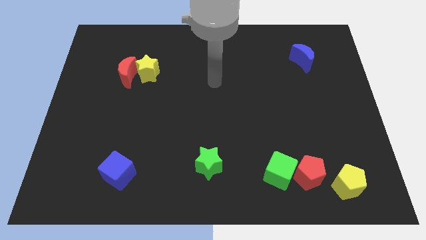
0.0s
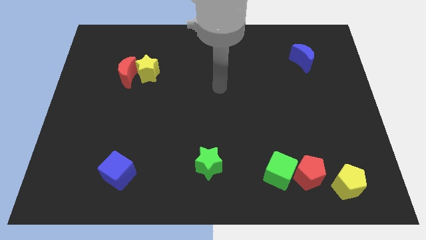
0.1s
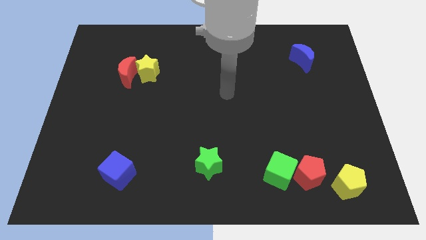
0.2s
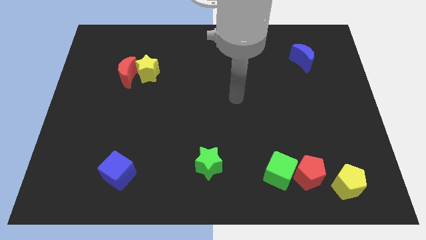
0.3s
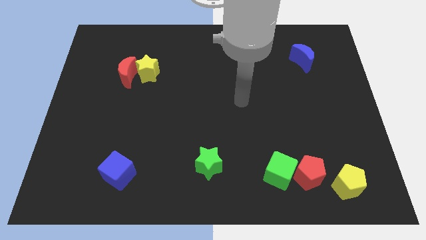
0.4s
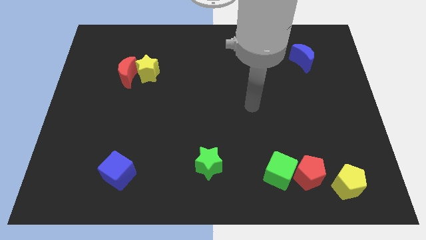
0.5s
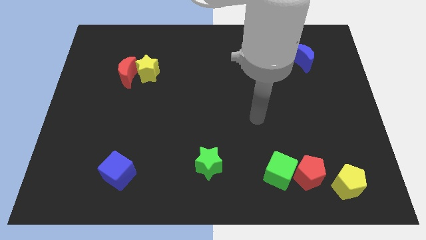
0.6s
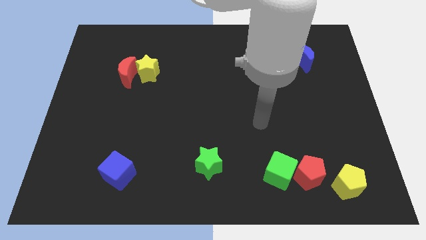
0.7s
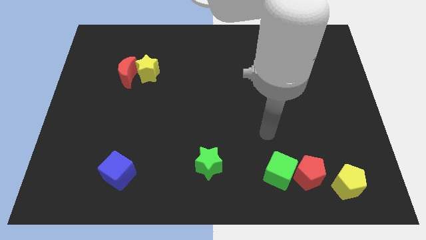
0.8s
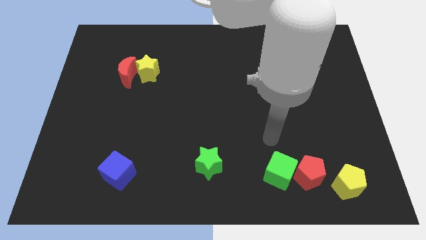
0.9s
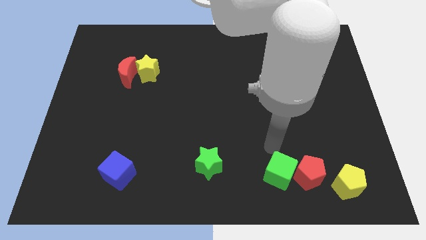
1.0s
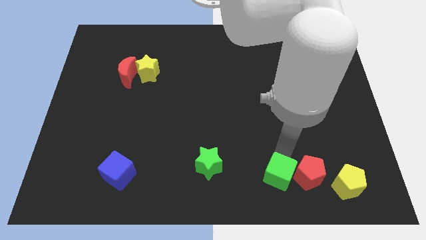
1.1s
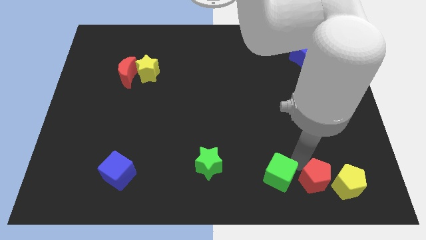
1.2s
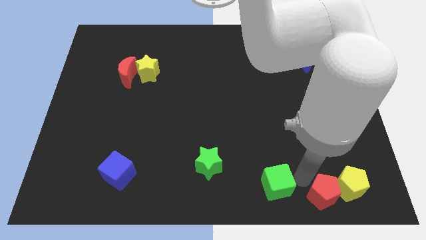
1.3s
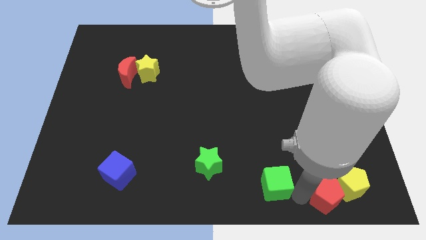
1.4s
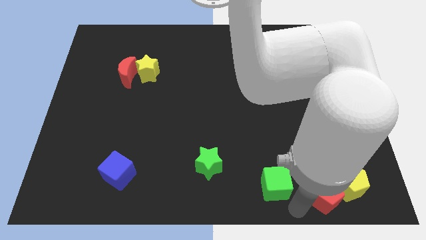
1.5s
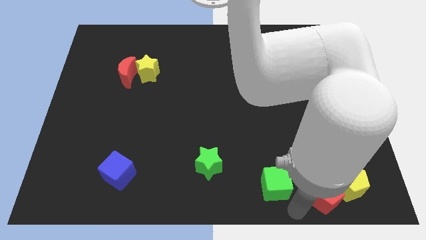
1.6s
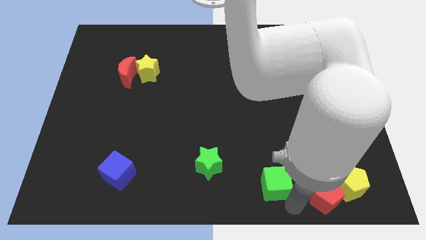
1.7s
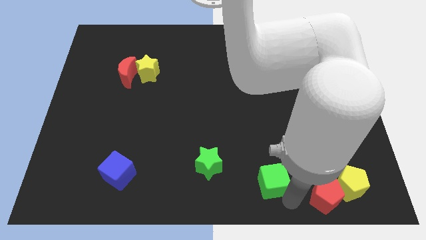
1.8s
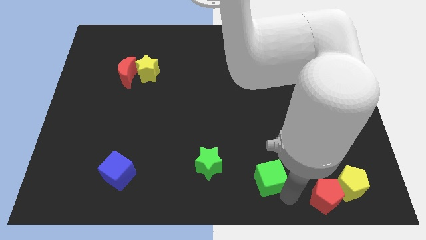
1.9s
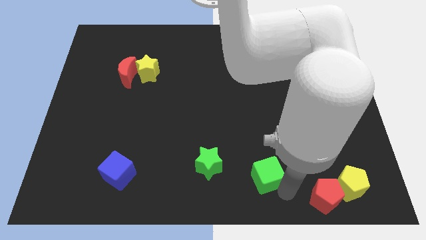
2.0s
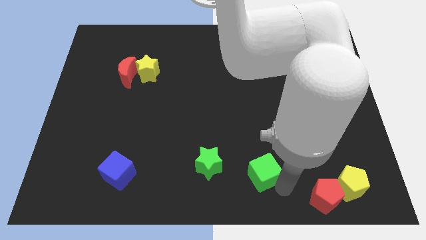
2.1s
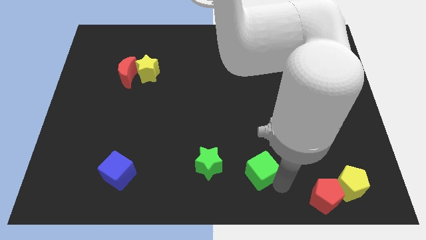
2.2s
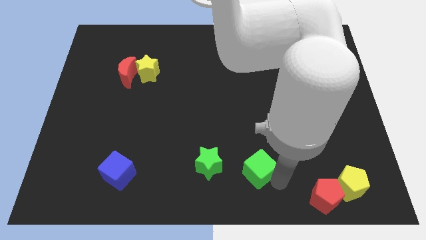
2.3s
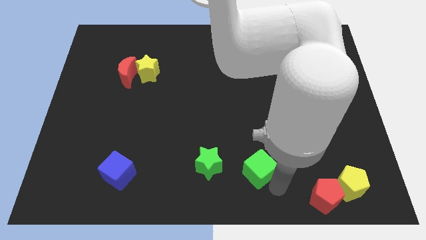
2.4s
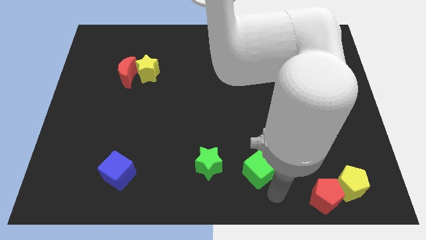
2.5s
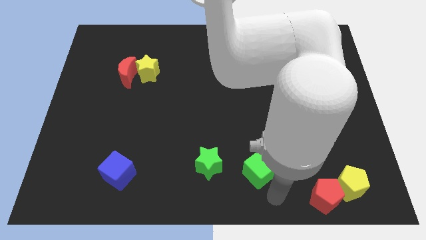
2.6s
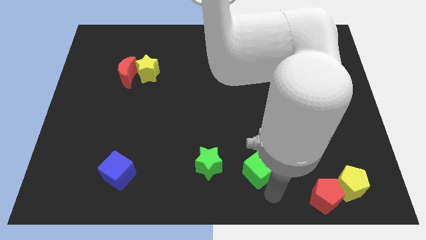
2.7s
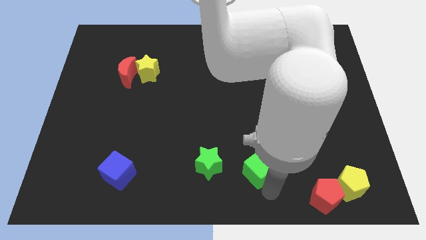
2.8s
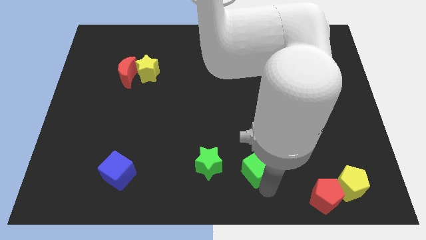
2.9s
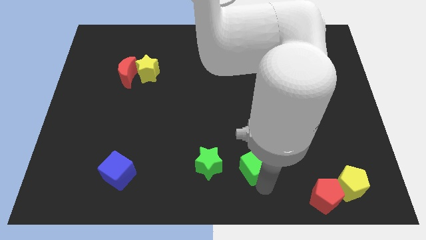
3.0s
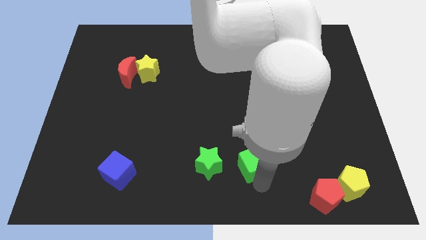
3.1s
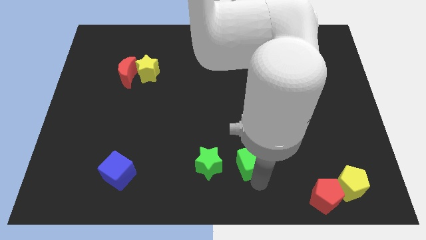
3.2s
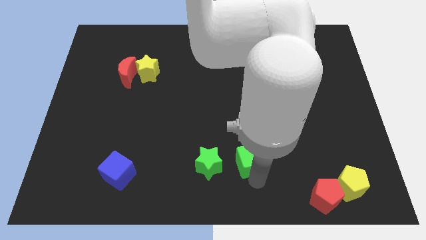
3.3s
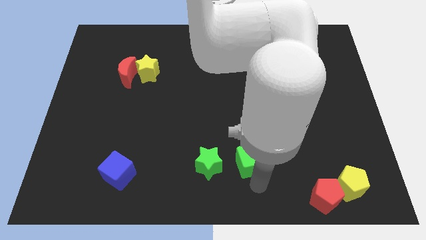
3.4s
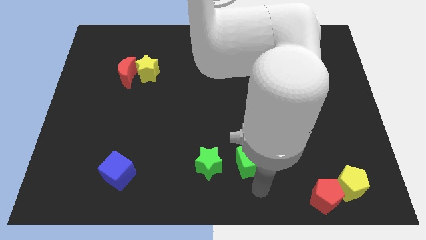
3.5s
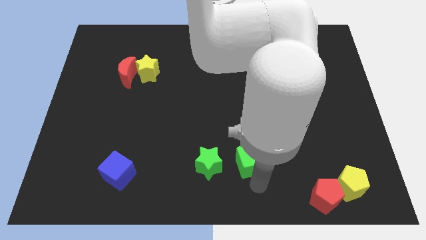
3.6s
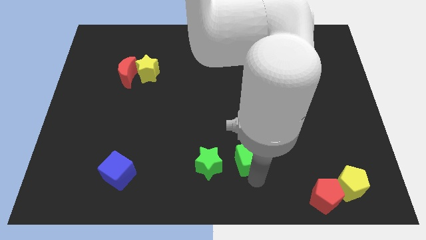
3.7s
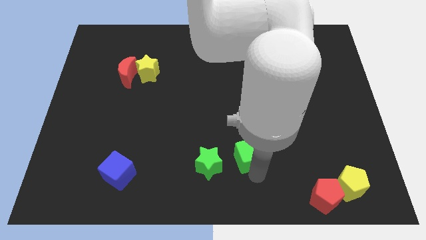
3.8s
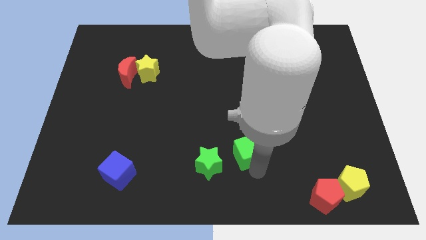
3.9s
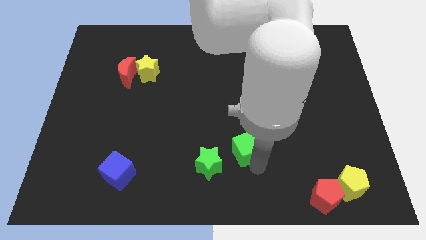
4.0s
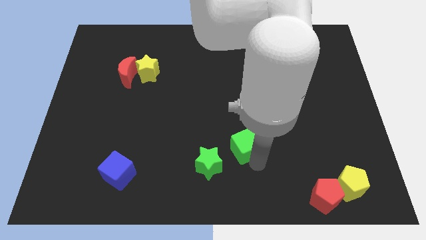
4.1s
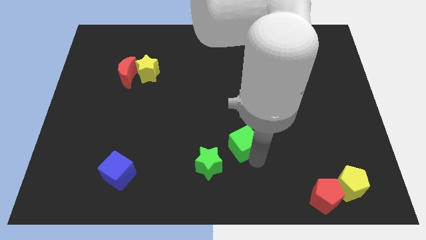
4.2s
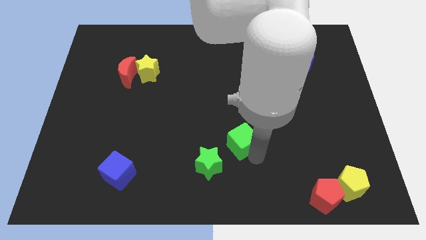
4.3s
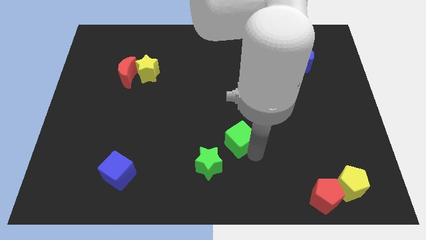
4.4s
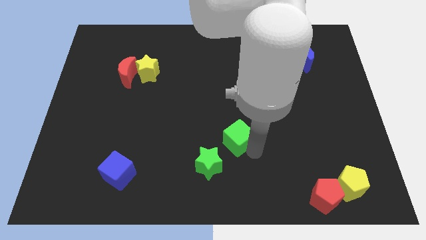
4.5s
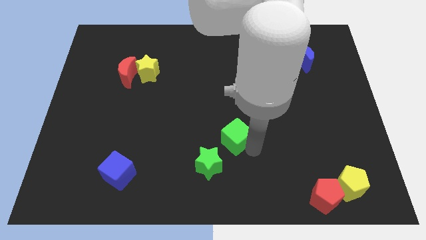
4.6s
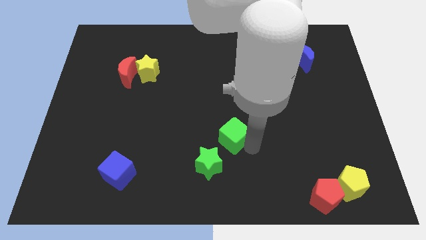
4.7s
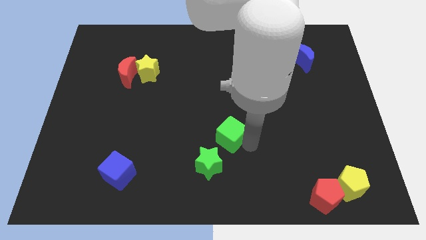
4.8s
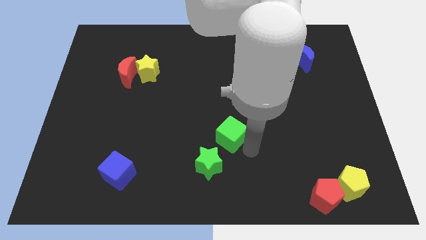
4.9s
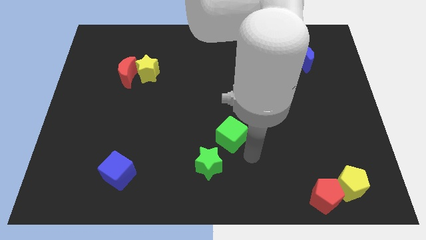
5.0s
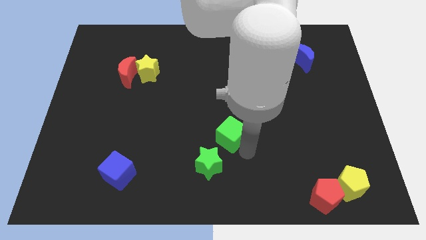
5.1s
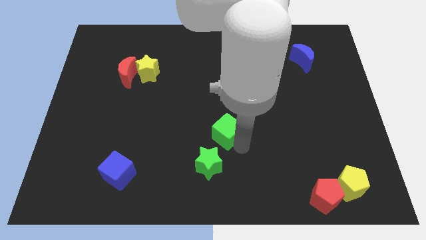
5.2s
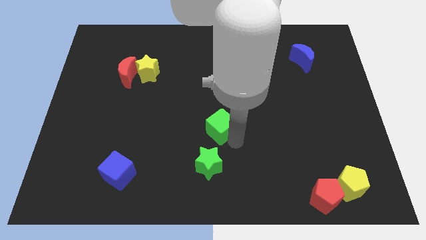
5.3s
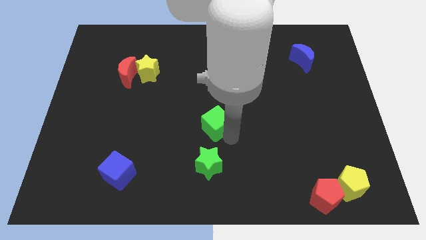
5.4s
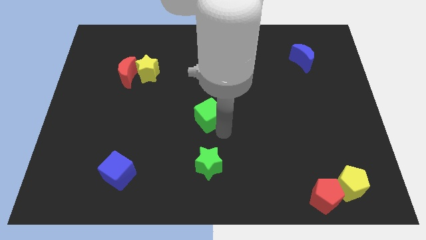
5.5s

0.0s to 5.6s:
move the green cube diagonally upwards and left

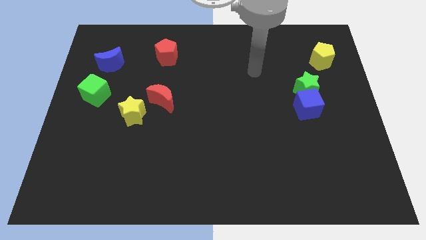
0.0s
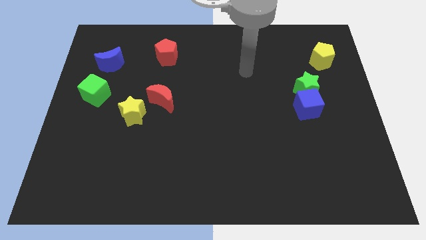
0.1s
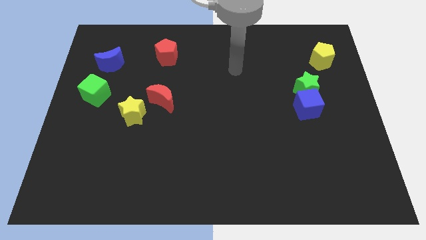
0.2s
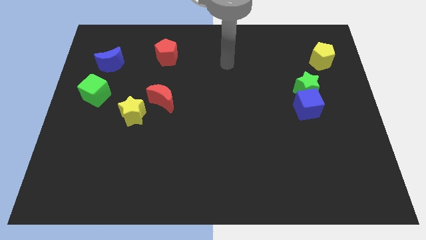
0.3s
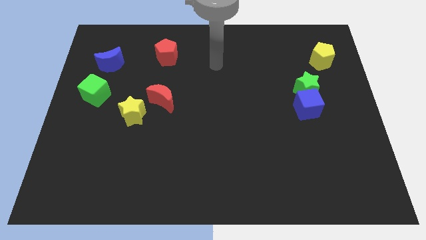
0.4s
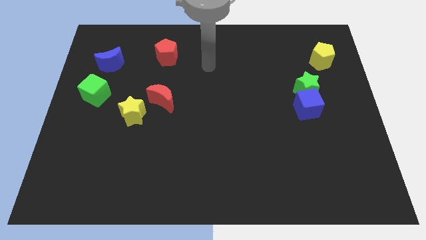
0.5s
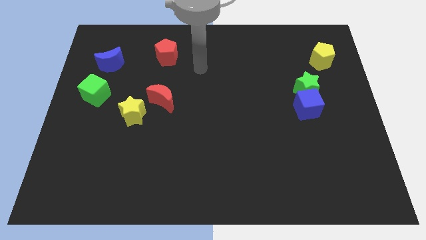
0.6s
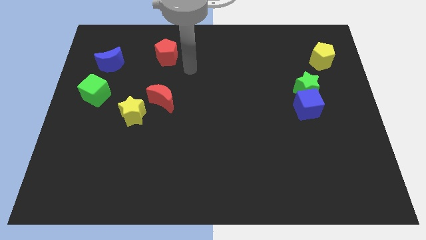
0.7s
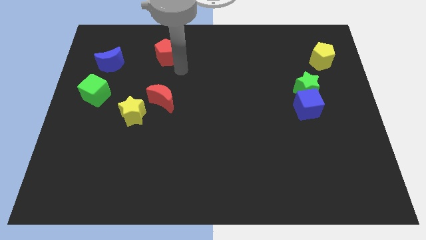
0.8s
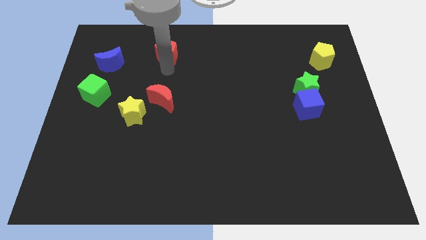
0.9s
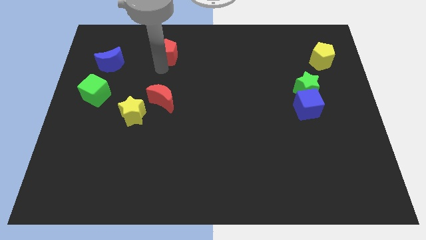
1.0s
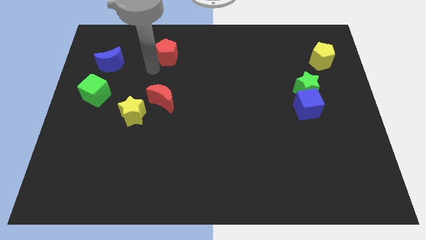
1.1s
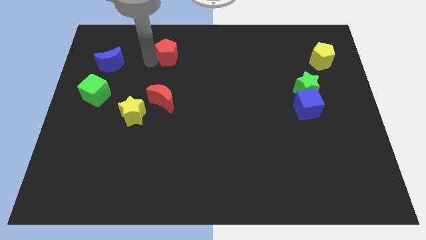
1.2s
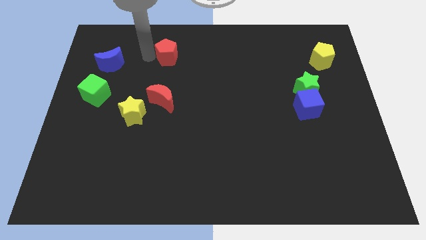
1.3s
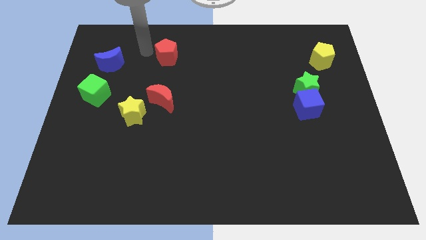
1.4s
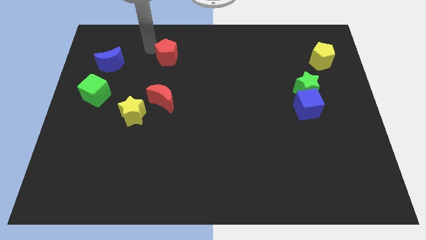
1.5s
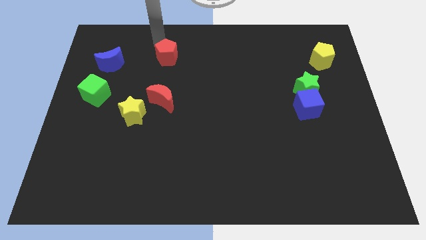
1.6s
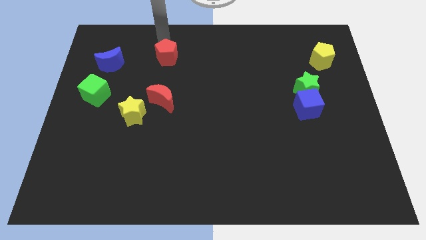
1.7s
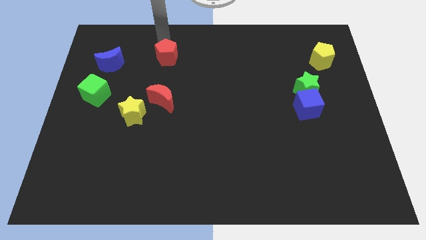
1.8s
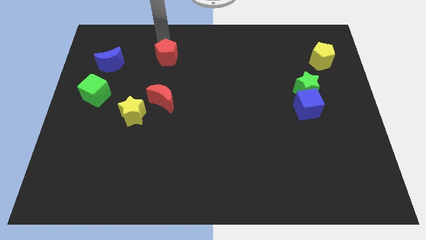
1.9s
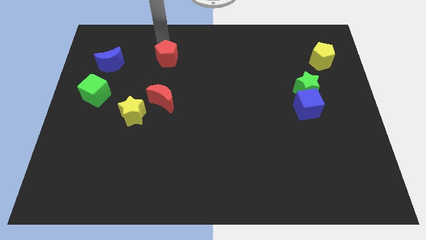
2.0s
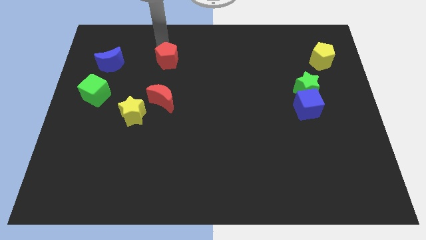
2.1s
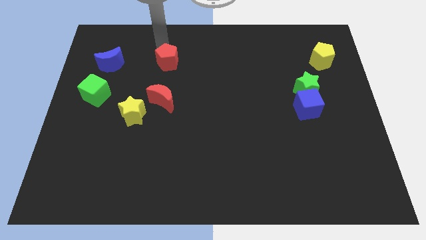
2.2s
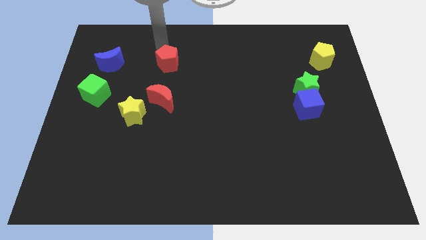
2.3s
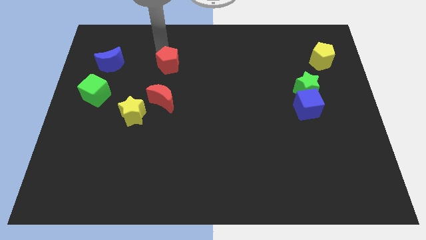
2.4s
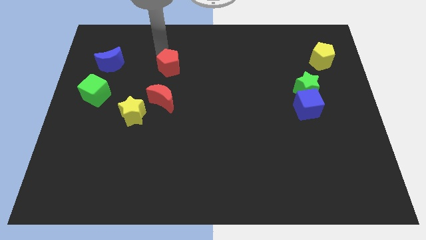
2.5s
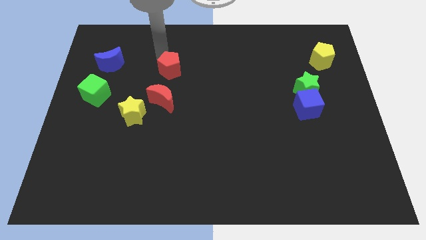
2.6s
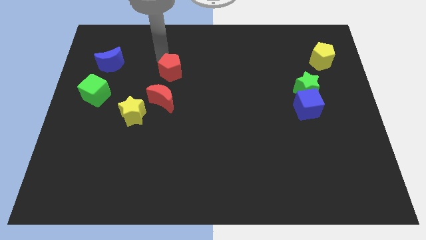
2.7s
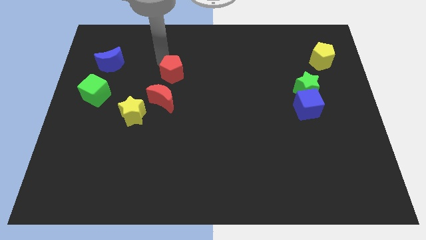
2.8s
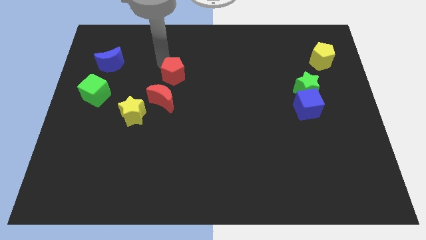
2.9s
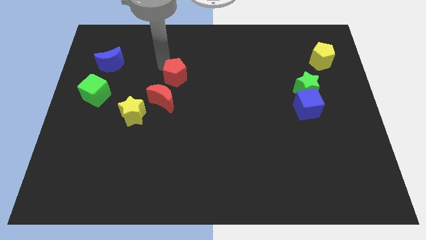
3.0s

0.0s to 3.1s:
move the red pentagon a bit down
